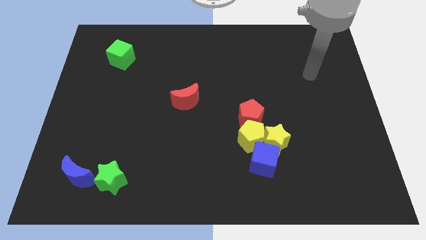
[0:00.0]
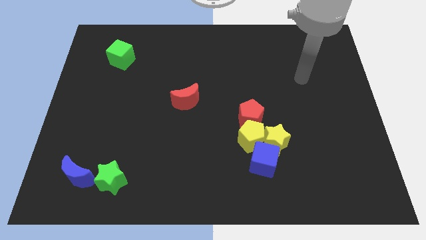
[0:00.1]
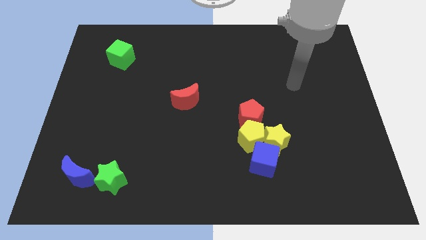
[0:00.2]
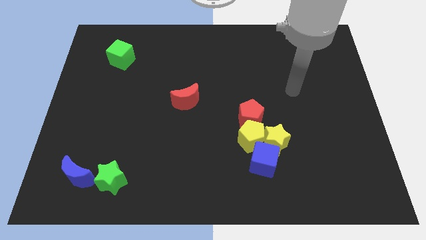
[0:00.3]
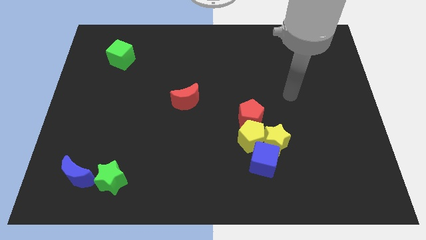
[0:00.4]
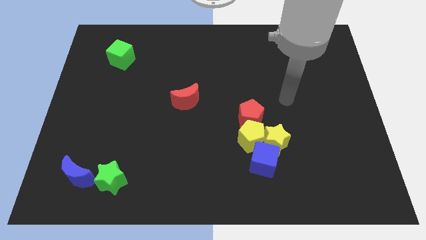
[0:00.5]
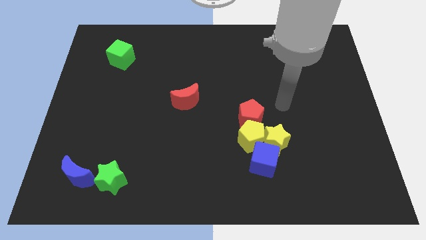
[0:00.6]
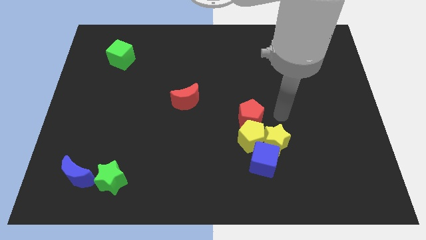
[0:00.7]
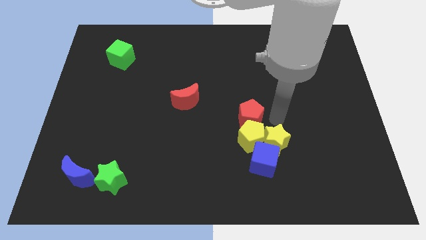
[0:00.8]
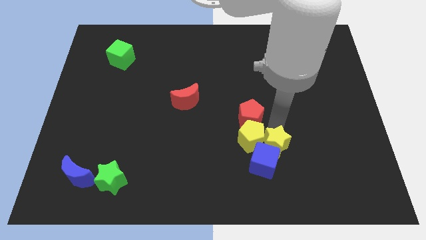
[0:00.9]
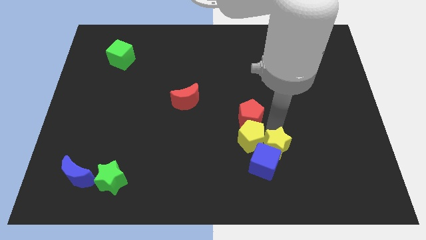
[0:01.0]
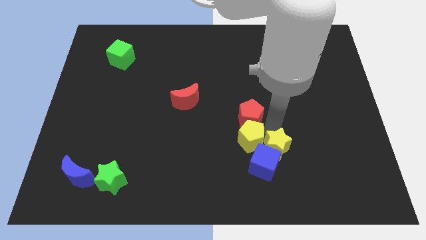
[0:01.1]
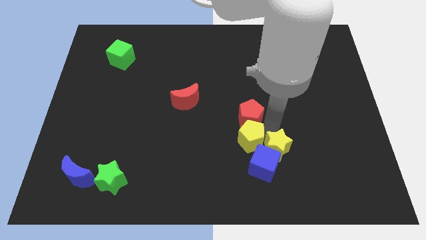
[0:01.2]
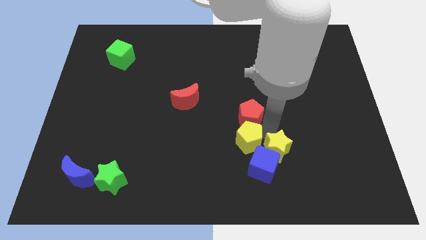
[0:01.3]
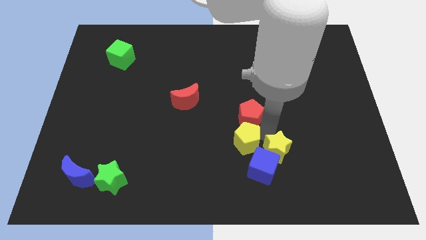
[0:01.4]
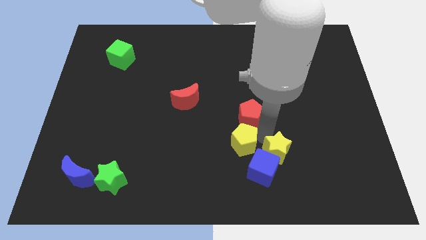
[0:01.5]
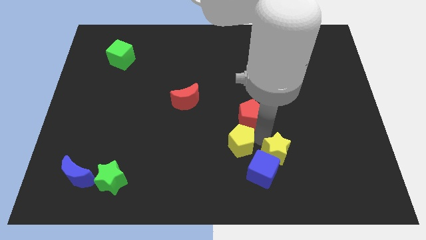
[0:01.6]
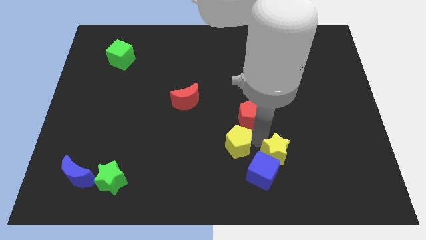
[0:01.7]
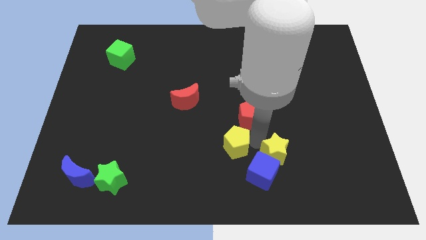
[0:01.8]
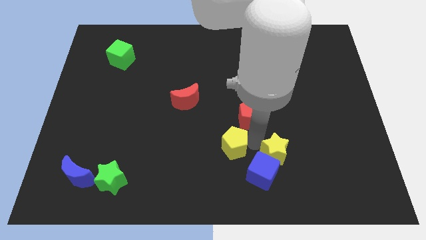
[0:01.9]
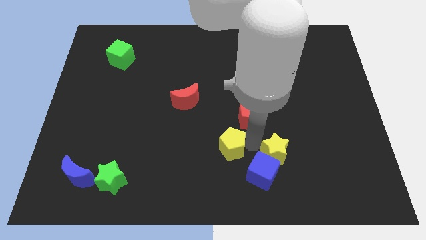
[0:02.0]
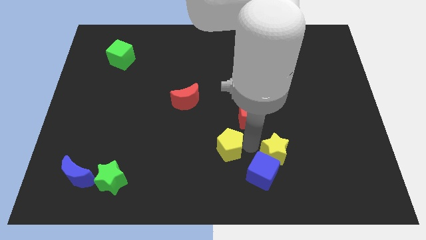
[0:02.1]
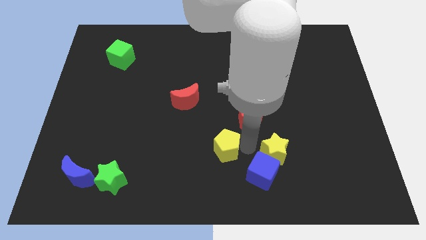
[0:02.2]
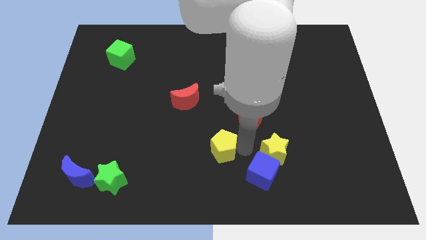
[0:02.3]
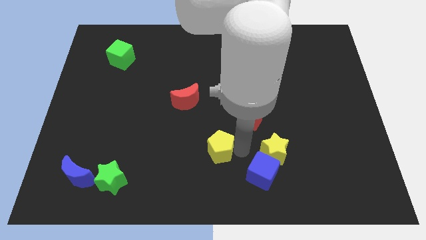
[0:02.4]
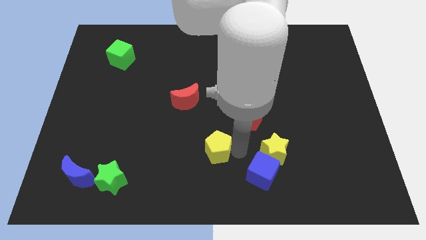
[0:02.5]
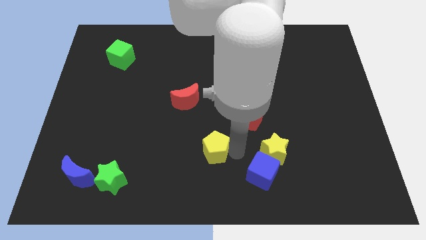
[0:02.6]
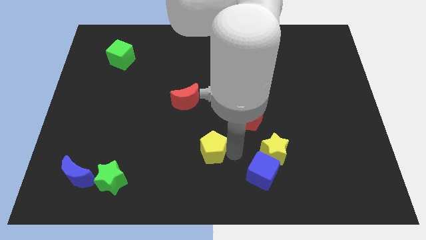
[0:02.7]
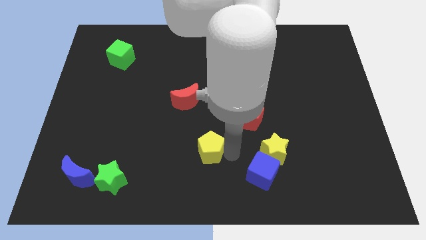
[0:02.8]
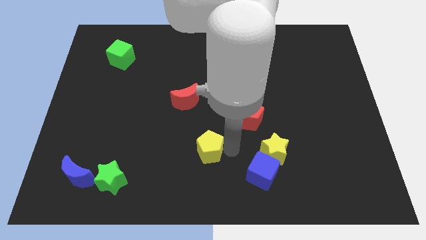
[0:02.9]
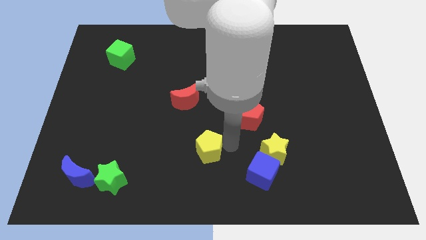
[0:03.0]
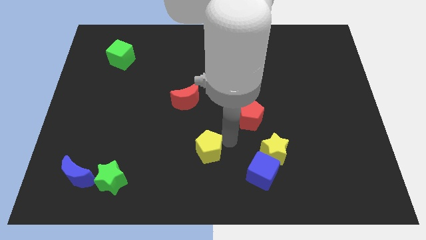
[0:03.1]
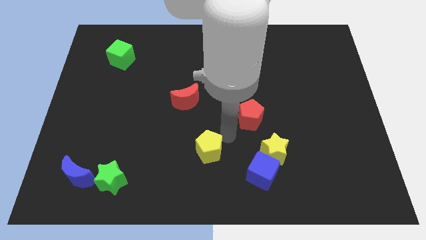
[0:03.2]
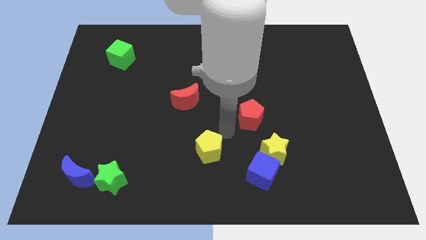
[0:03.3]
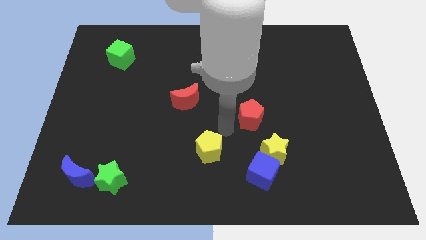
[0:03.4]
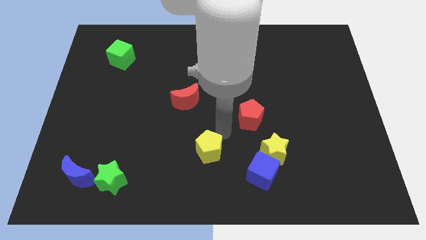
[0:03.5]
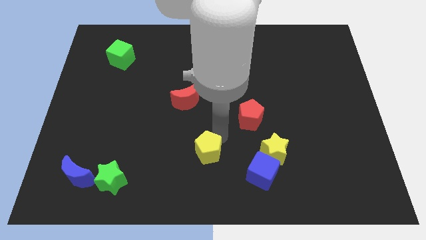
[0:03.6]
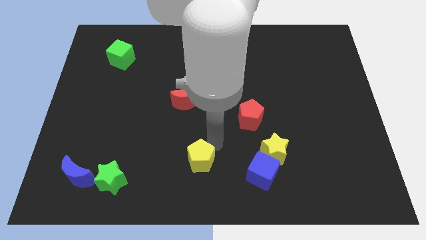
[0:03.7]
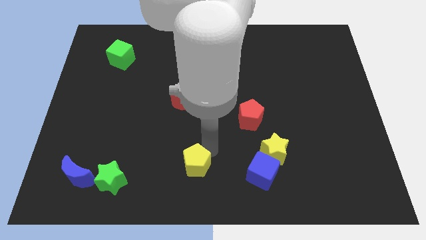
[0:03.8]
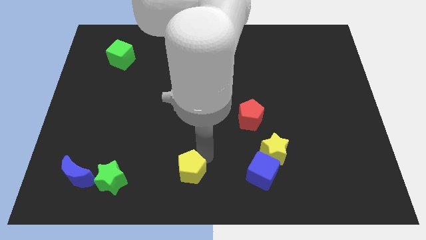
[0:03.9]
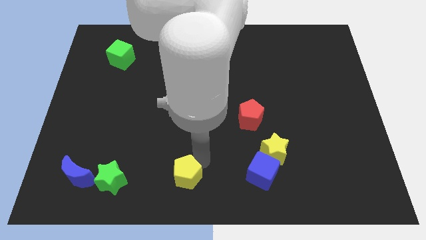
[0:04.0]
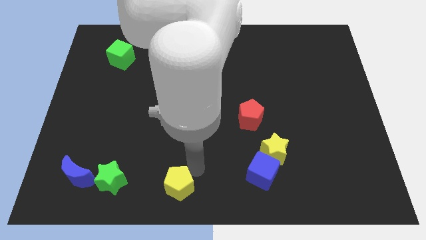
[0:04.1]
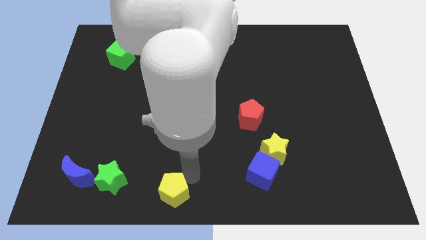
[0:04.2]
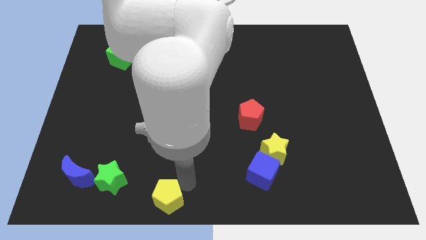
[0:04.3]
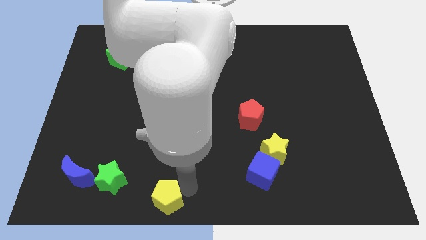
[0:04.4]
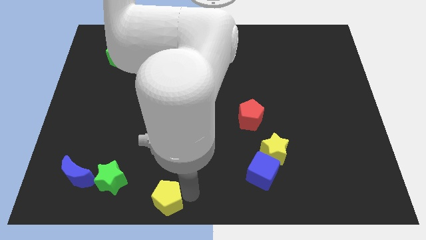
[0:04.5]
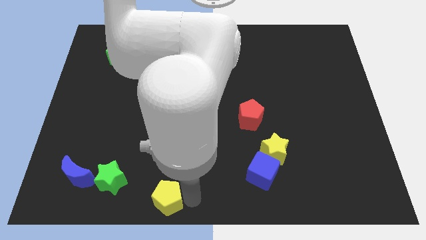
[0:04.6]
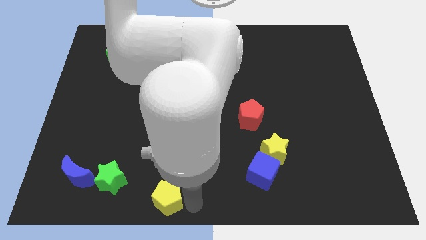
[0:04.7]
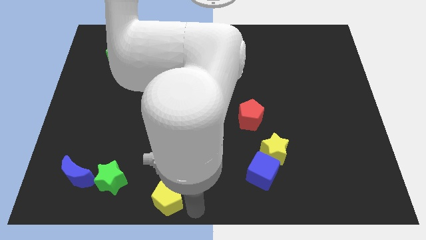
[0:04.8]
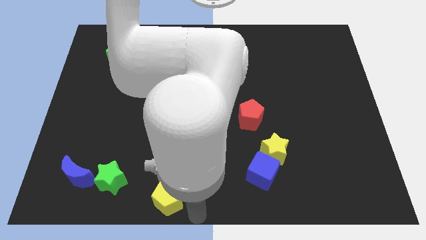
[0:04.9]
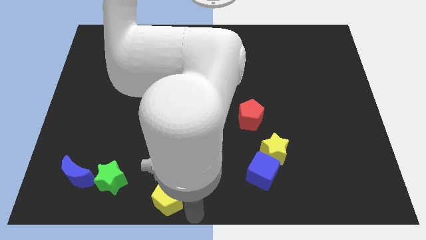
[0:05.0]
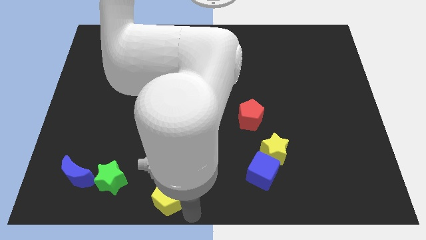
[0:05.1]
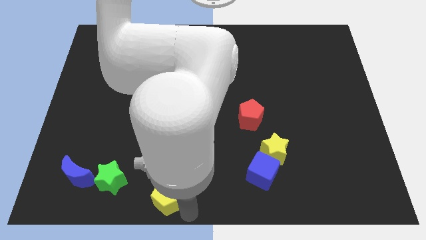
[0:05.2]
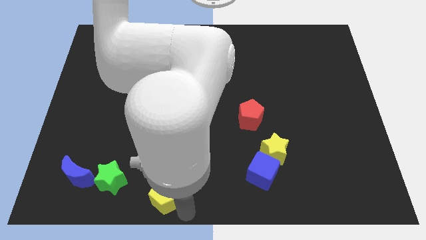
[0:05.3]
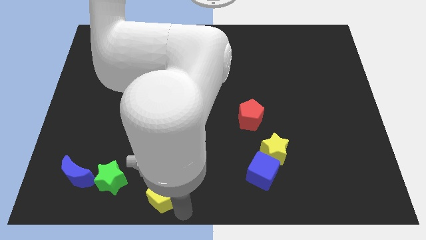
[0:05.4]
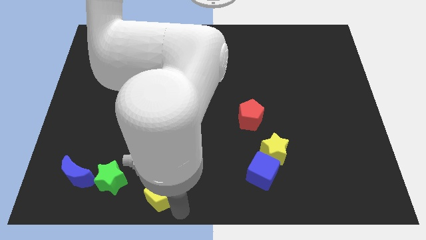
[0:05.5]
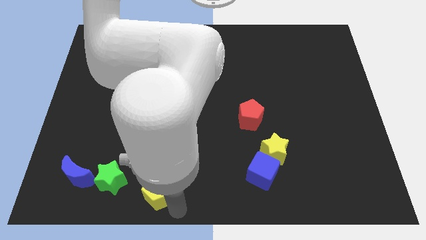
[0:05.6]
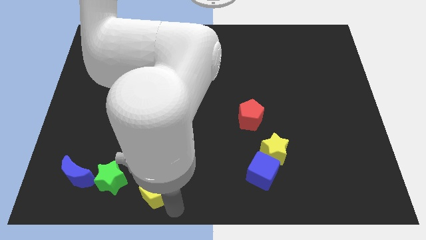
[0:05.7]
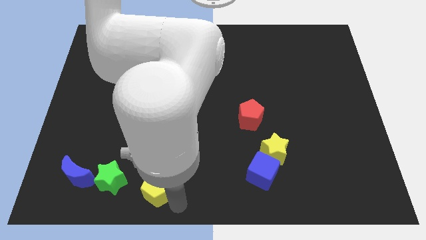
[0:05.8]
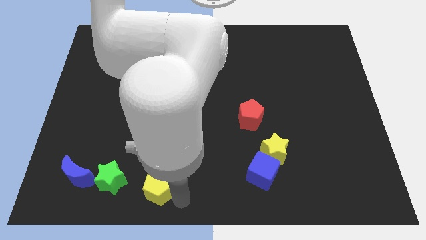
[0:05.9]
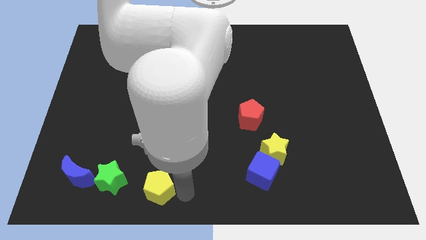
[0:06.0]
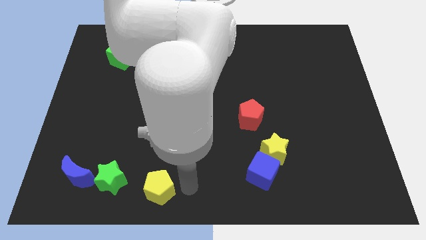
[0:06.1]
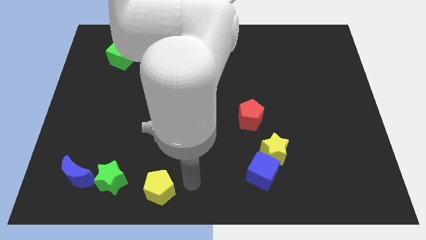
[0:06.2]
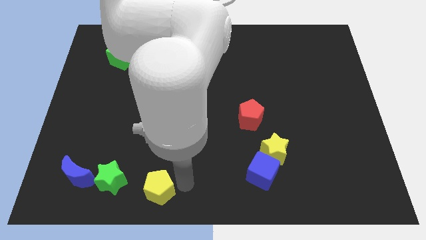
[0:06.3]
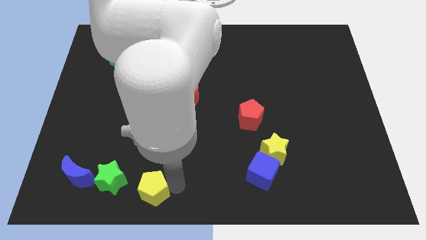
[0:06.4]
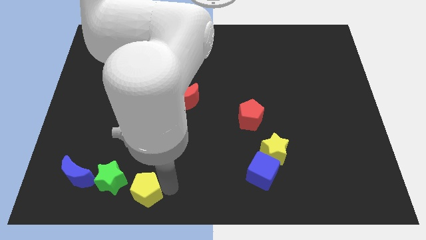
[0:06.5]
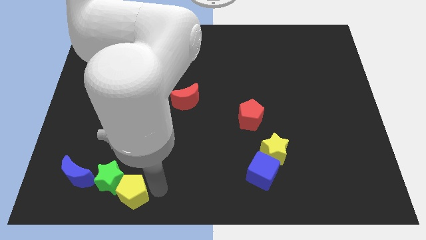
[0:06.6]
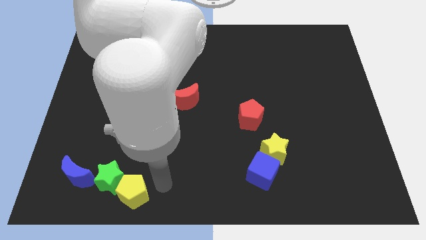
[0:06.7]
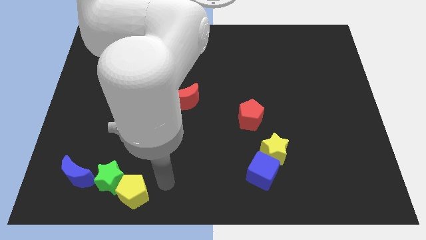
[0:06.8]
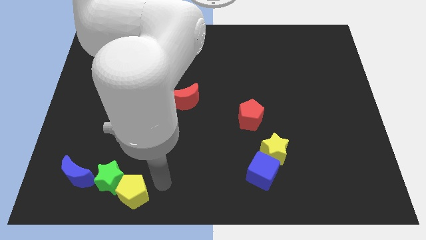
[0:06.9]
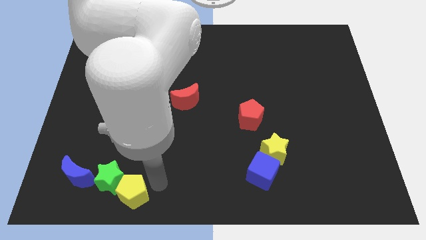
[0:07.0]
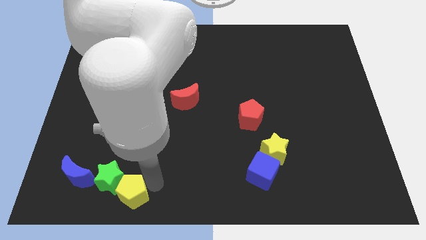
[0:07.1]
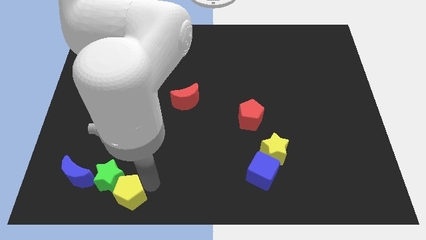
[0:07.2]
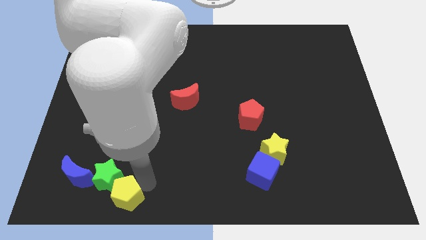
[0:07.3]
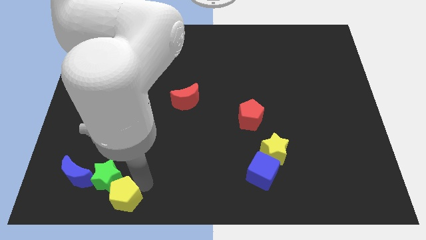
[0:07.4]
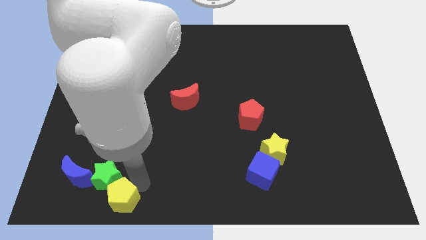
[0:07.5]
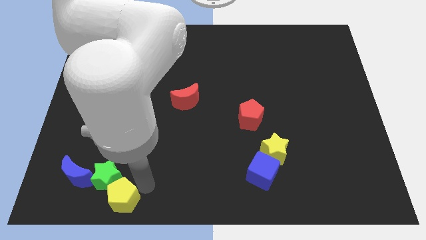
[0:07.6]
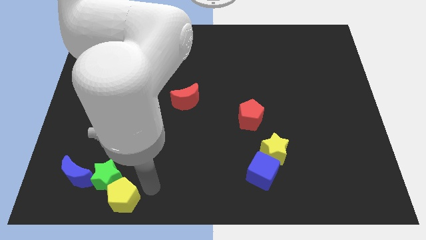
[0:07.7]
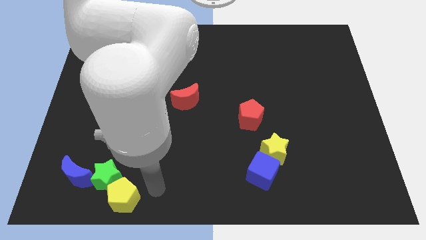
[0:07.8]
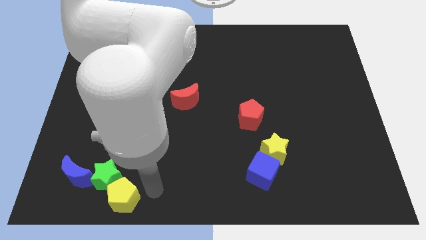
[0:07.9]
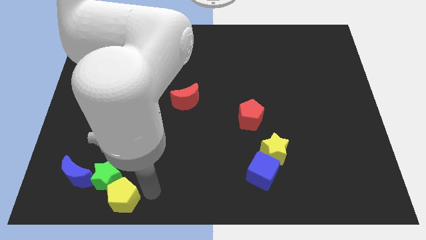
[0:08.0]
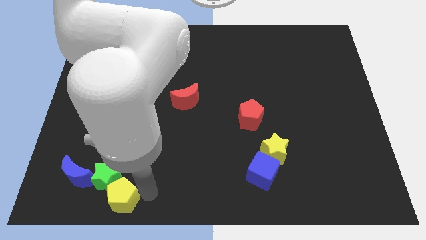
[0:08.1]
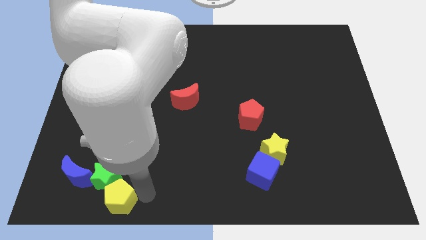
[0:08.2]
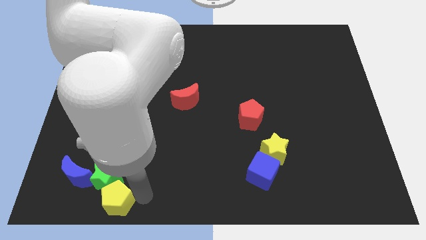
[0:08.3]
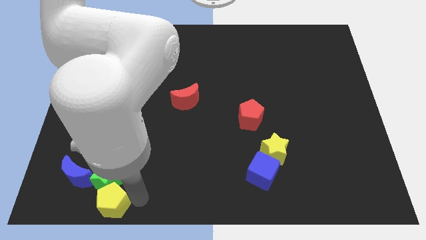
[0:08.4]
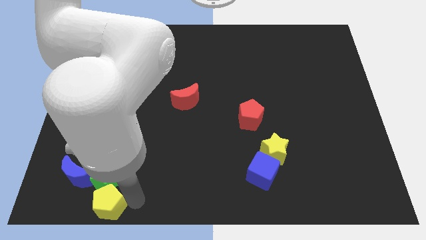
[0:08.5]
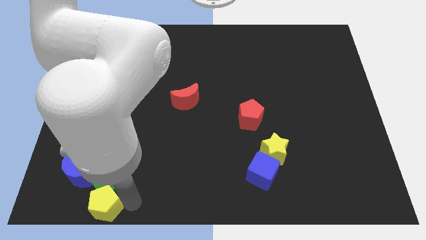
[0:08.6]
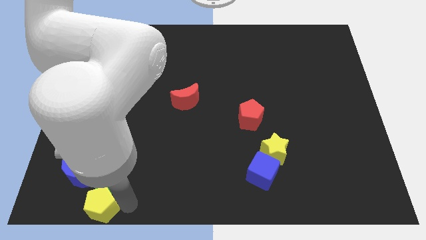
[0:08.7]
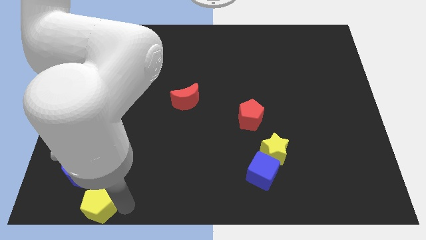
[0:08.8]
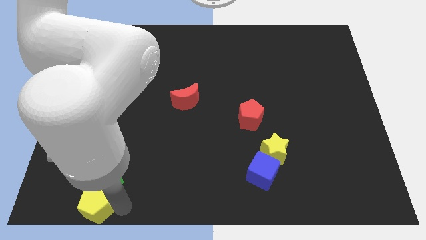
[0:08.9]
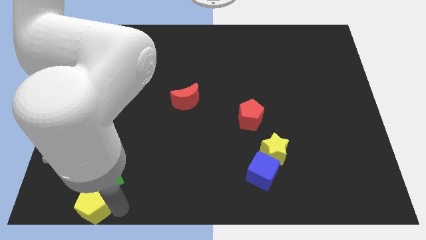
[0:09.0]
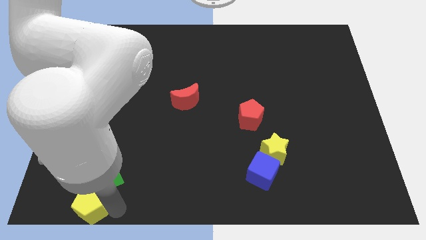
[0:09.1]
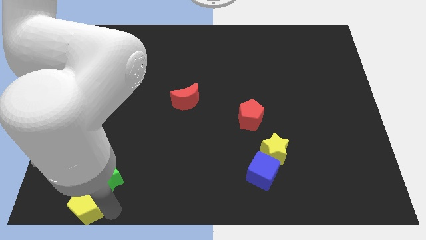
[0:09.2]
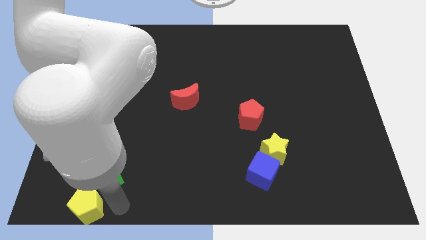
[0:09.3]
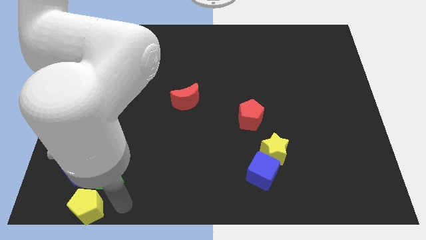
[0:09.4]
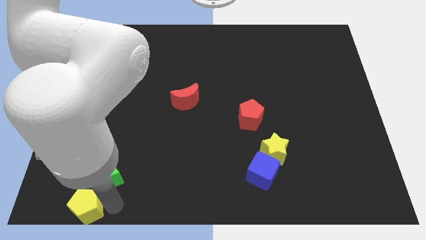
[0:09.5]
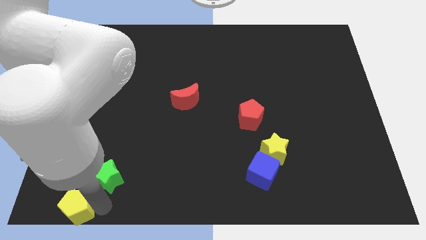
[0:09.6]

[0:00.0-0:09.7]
slide the yellow pentagon to the bottom left corner
